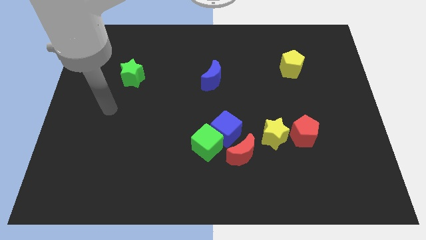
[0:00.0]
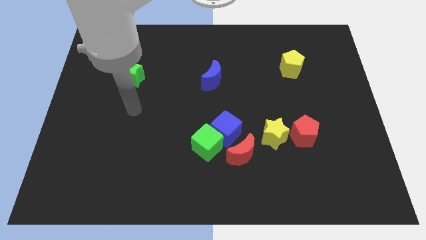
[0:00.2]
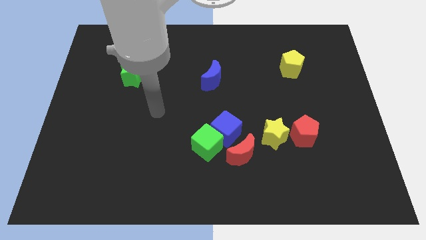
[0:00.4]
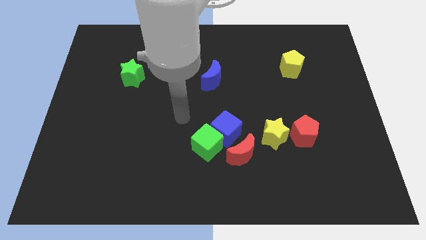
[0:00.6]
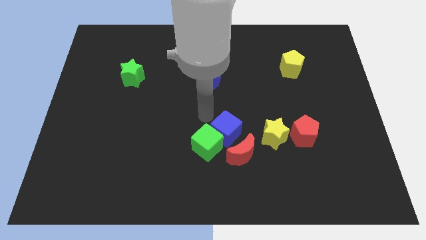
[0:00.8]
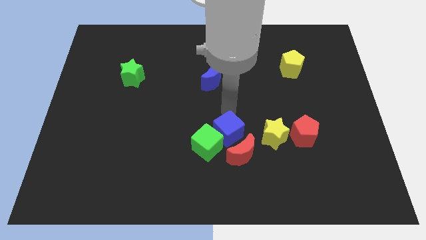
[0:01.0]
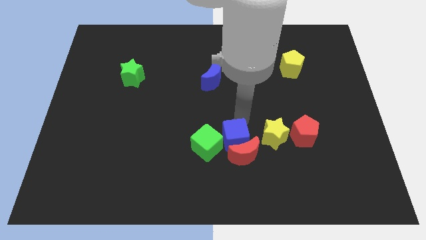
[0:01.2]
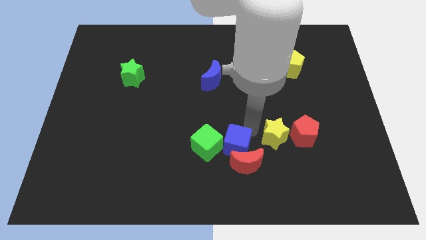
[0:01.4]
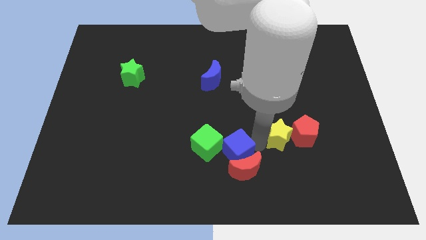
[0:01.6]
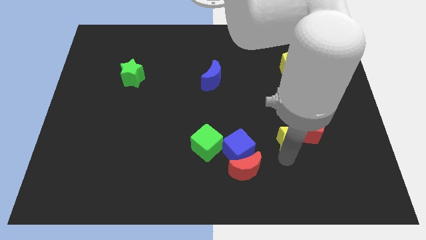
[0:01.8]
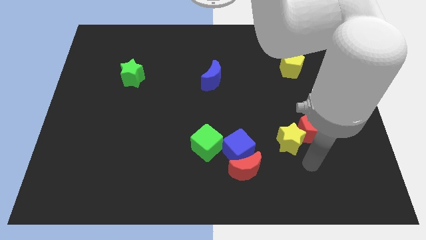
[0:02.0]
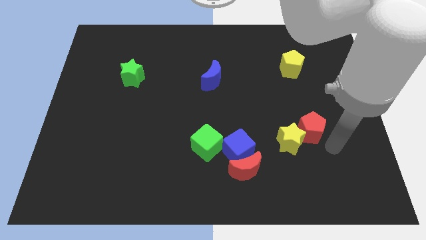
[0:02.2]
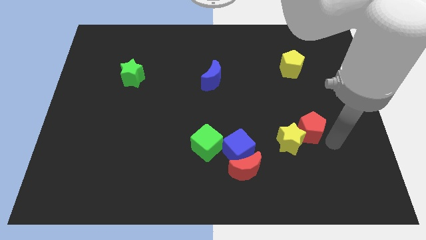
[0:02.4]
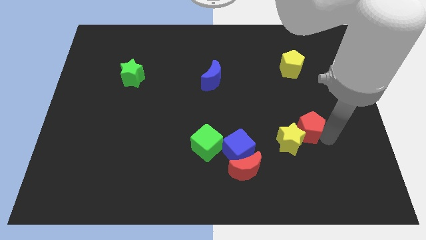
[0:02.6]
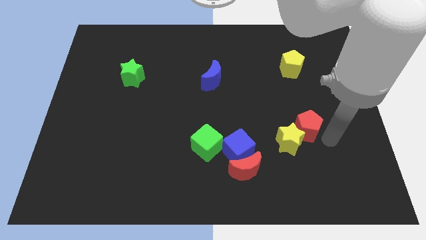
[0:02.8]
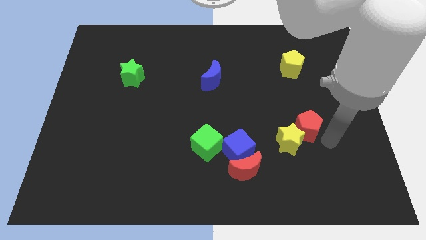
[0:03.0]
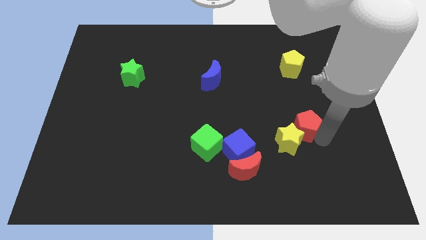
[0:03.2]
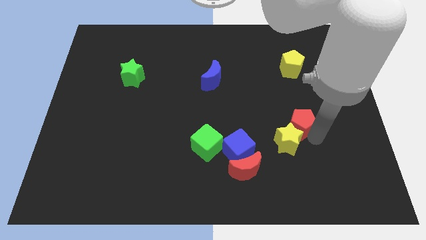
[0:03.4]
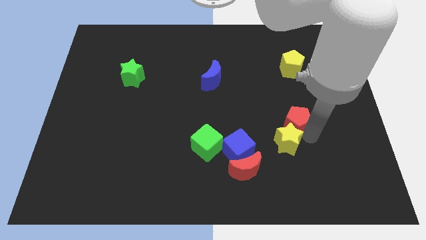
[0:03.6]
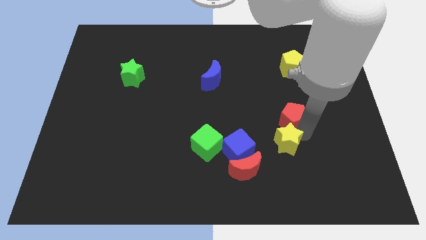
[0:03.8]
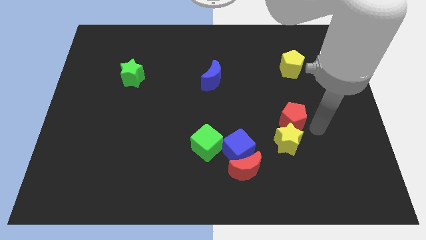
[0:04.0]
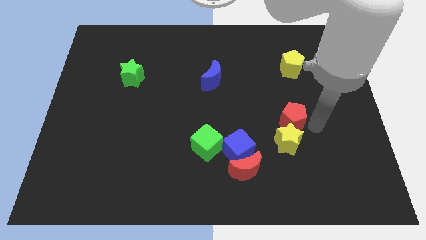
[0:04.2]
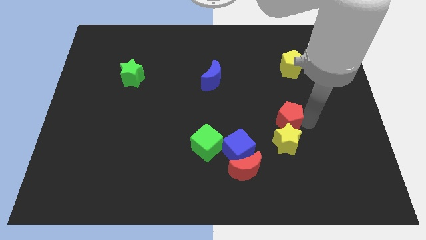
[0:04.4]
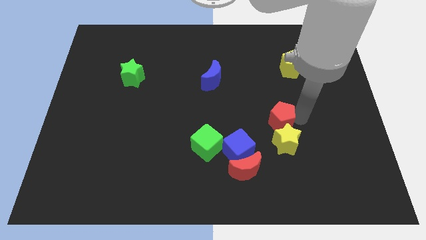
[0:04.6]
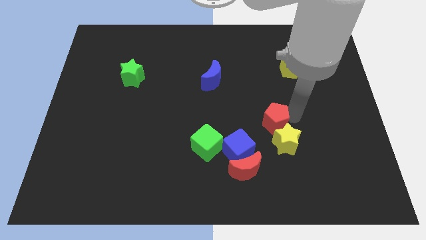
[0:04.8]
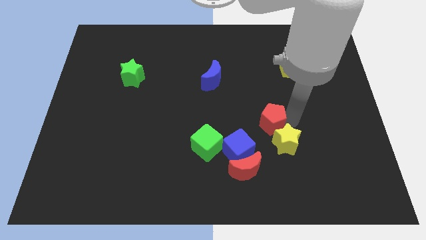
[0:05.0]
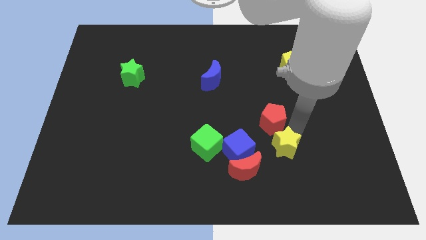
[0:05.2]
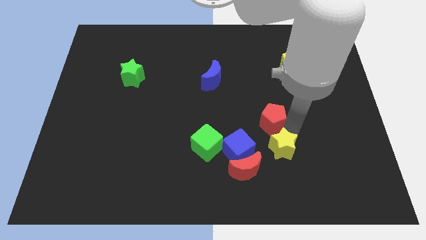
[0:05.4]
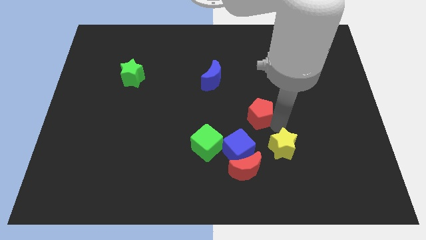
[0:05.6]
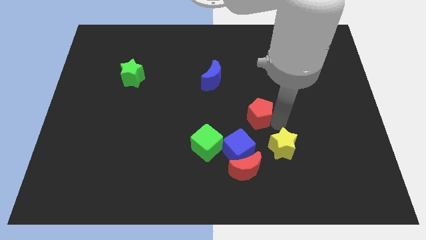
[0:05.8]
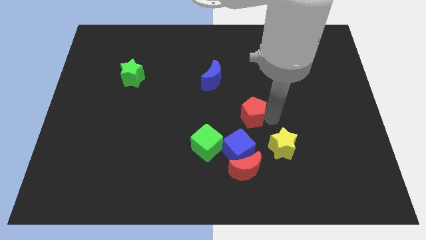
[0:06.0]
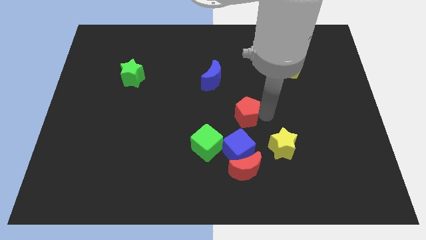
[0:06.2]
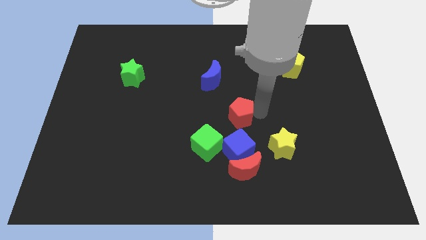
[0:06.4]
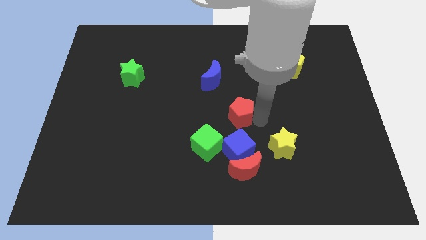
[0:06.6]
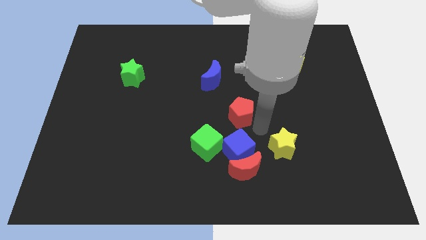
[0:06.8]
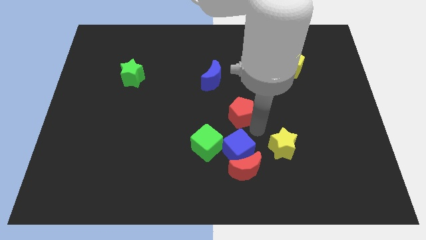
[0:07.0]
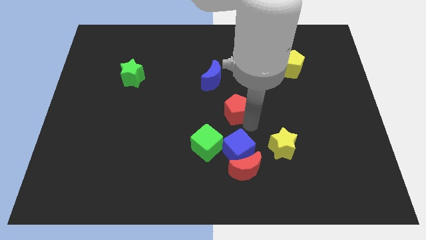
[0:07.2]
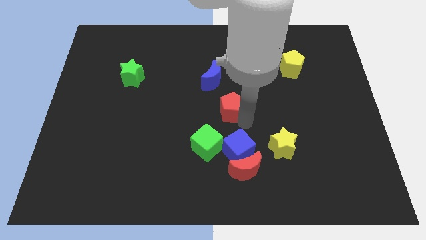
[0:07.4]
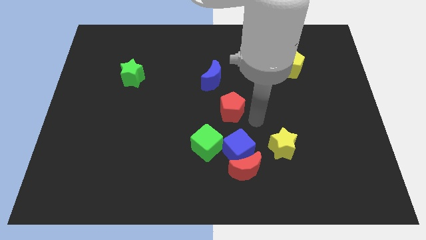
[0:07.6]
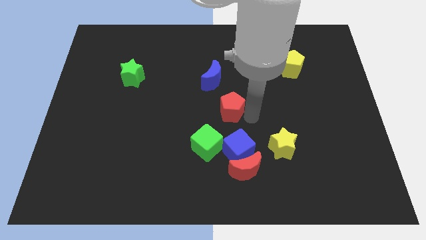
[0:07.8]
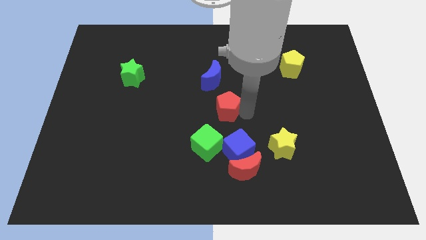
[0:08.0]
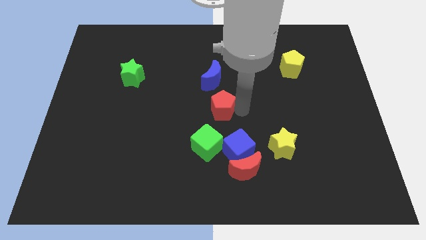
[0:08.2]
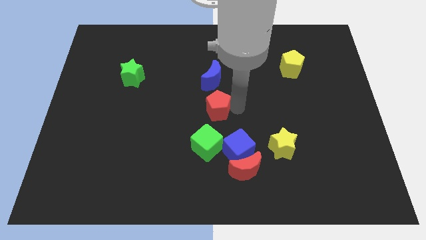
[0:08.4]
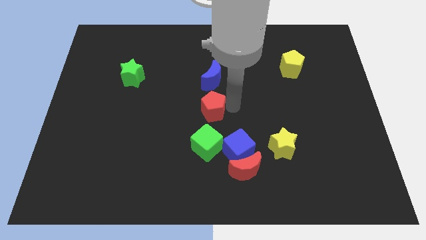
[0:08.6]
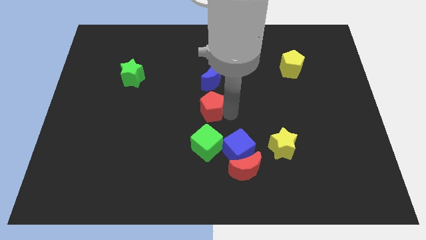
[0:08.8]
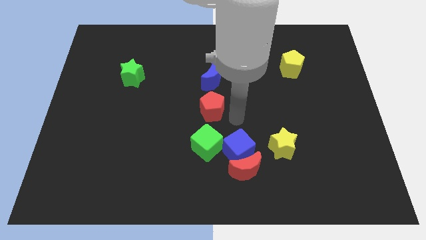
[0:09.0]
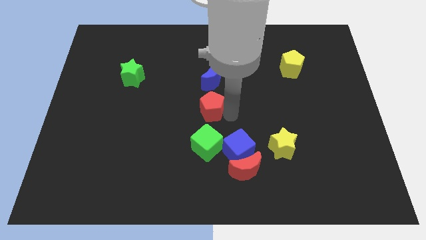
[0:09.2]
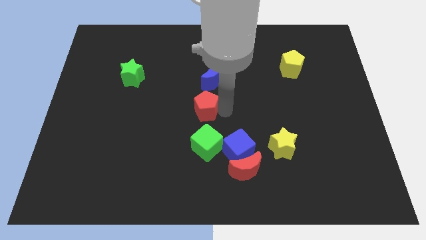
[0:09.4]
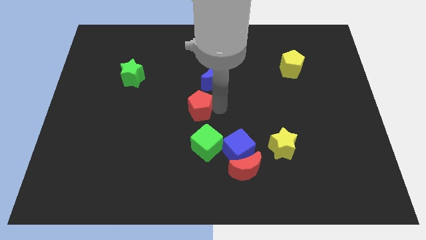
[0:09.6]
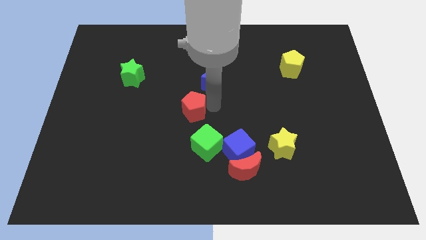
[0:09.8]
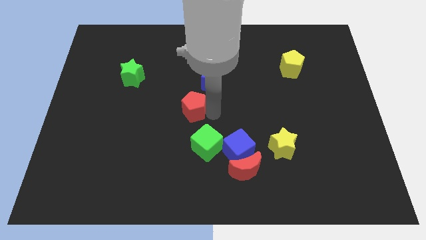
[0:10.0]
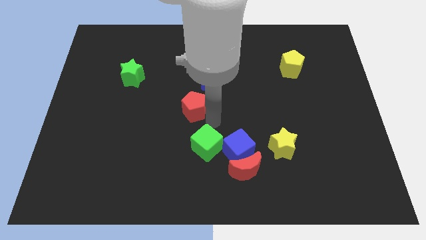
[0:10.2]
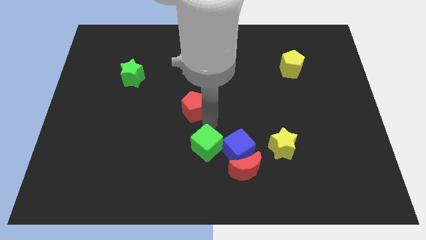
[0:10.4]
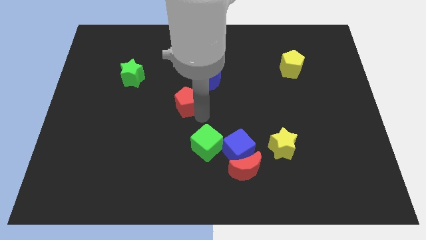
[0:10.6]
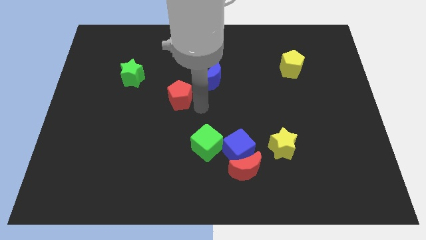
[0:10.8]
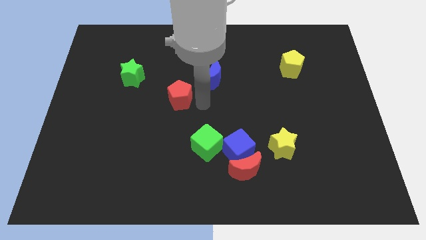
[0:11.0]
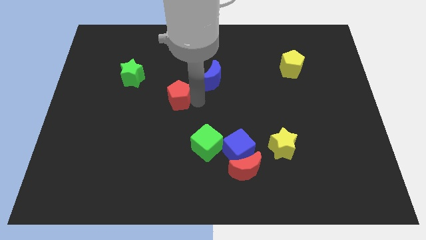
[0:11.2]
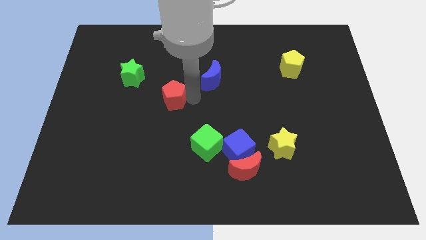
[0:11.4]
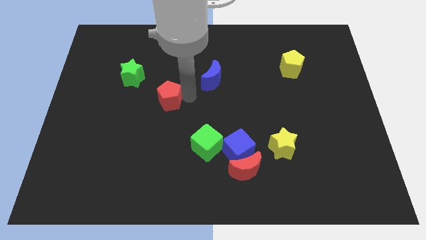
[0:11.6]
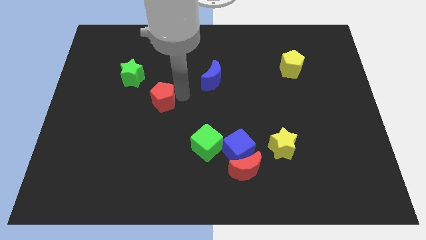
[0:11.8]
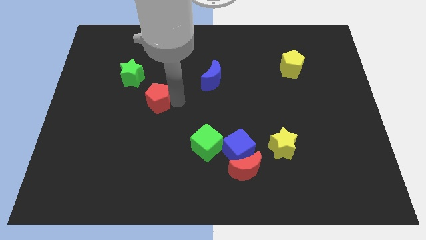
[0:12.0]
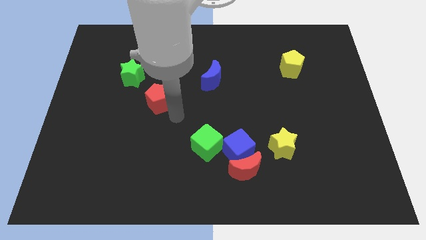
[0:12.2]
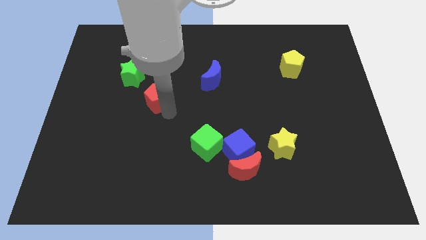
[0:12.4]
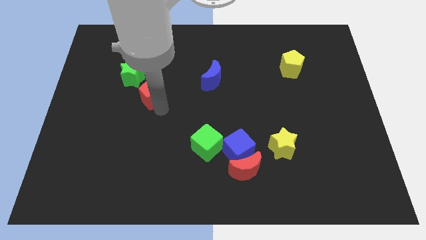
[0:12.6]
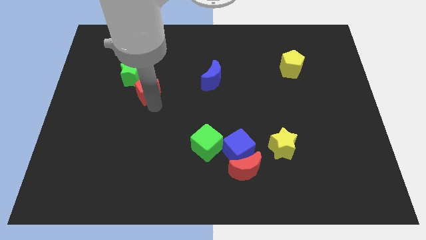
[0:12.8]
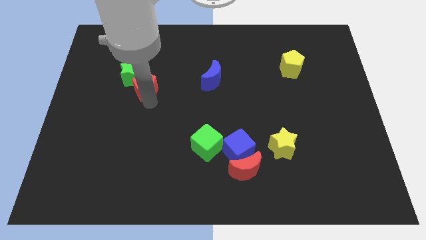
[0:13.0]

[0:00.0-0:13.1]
push the red pentagon towards the green star

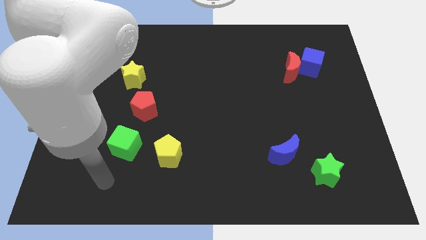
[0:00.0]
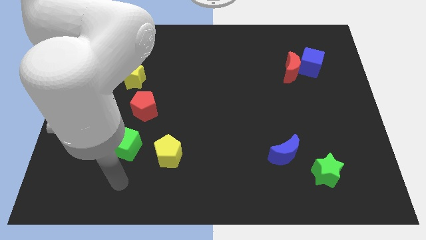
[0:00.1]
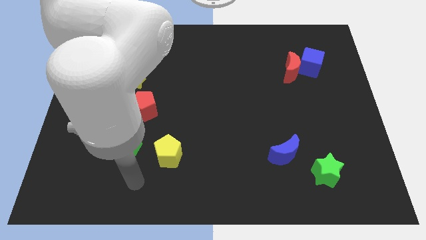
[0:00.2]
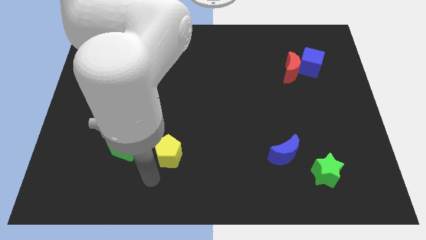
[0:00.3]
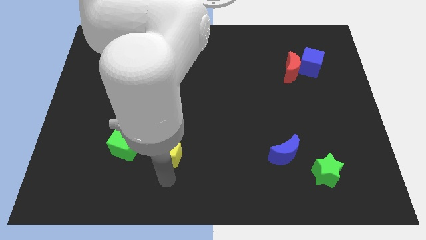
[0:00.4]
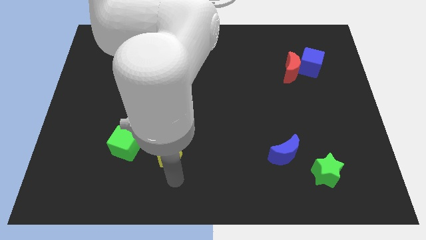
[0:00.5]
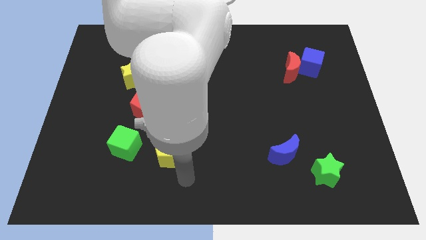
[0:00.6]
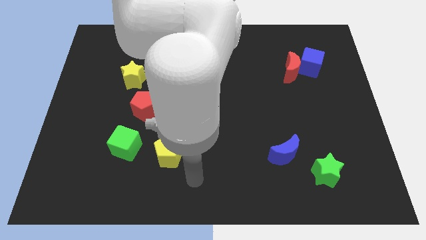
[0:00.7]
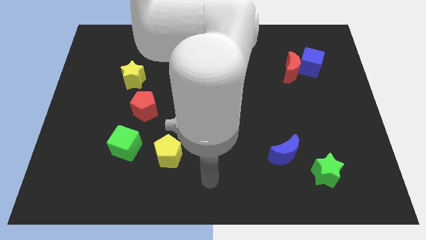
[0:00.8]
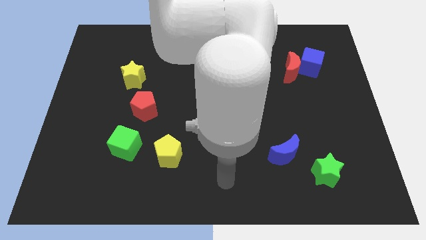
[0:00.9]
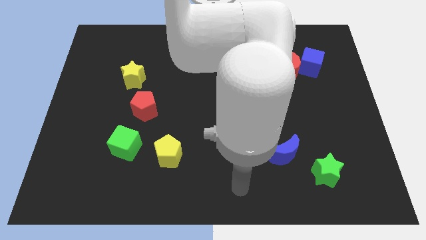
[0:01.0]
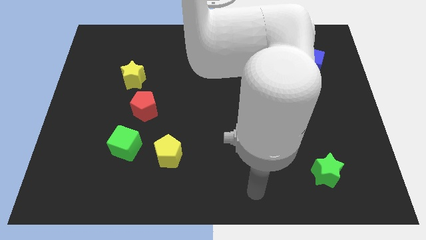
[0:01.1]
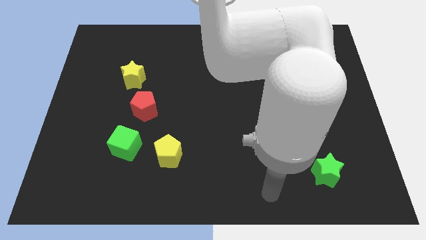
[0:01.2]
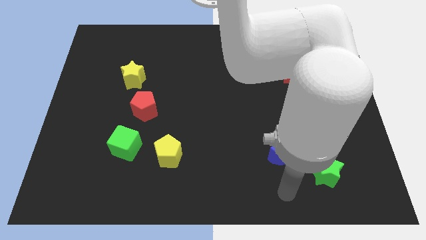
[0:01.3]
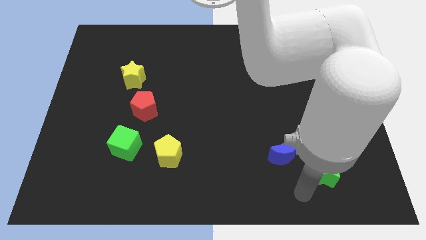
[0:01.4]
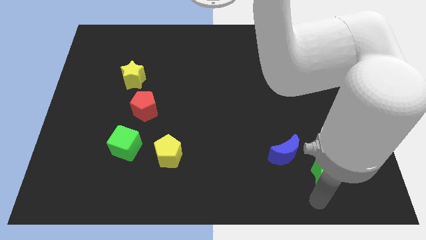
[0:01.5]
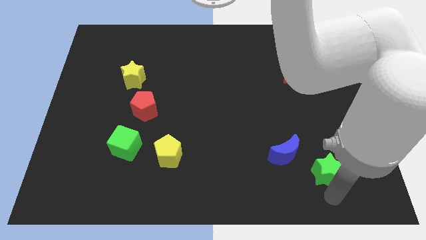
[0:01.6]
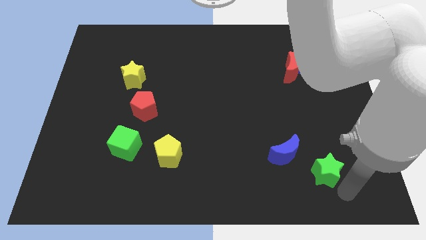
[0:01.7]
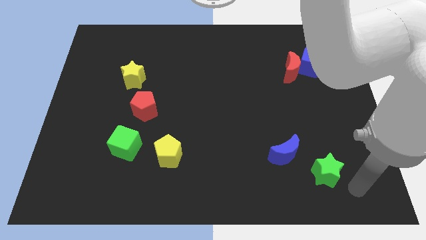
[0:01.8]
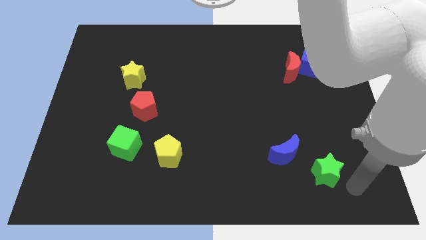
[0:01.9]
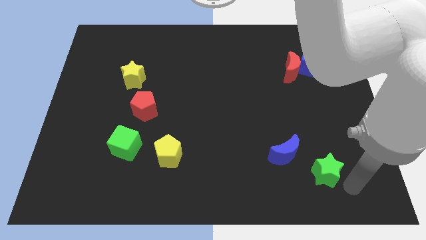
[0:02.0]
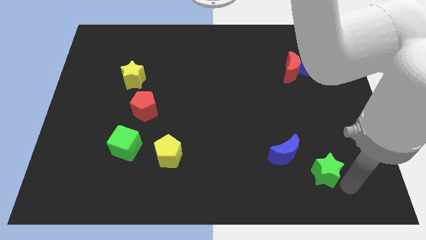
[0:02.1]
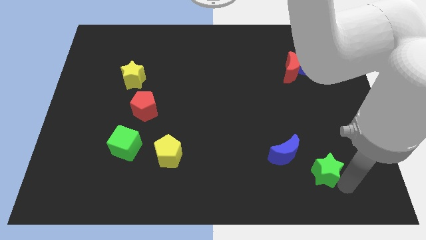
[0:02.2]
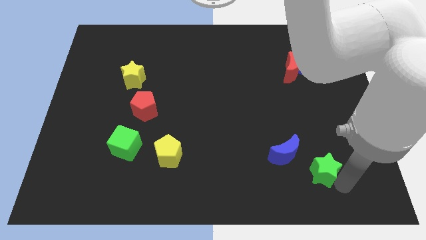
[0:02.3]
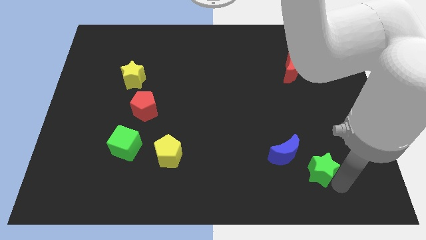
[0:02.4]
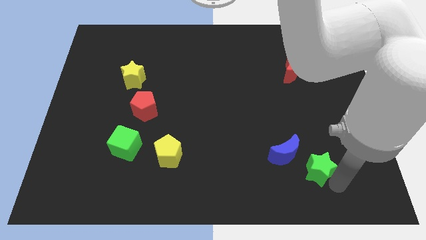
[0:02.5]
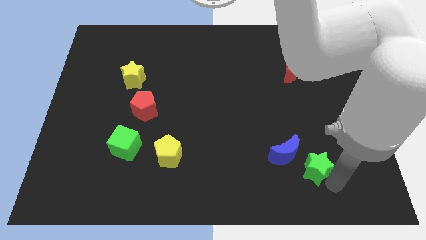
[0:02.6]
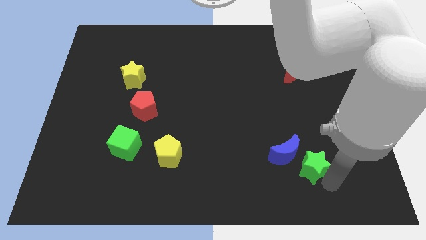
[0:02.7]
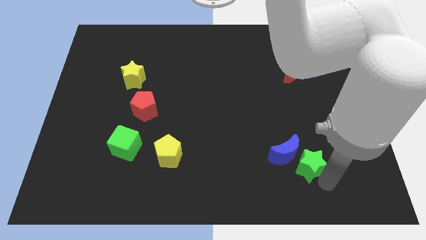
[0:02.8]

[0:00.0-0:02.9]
put the green star towards the blue moon
